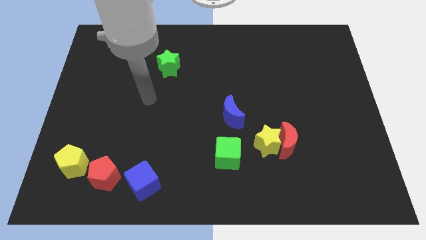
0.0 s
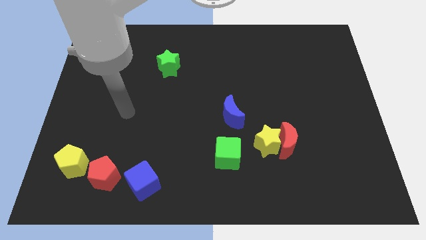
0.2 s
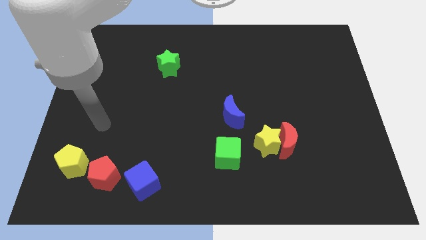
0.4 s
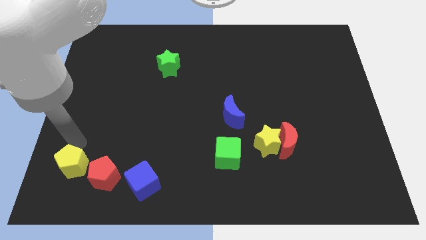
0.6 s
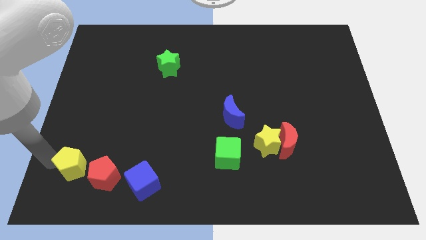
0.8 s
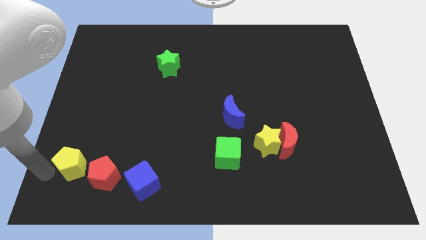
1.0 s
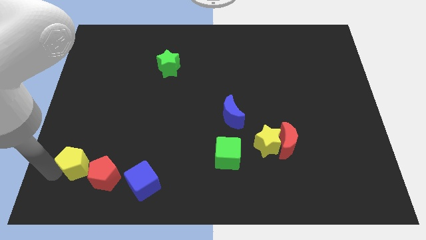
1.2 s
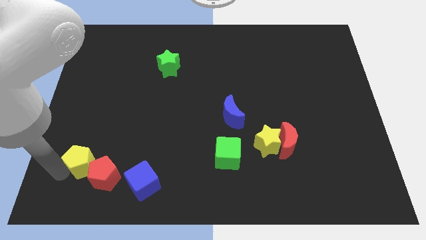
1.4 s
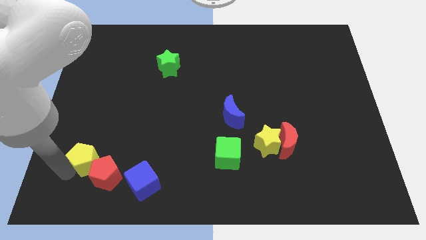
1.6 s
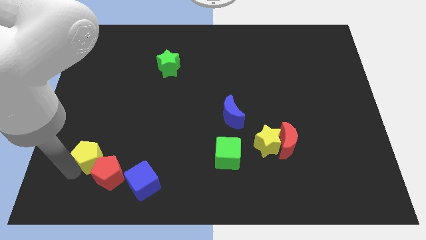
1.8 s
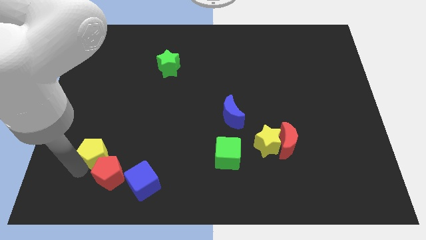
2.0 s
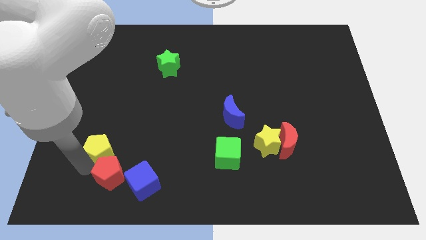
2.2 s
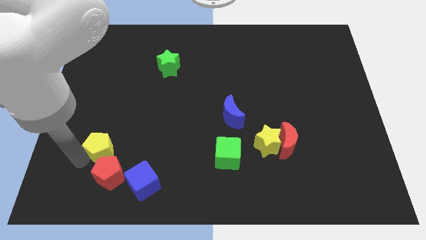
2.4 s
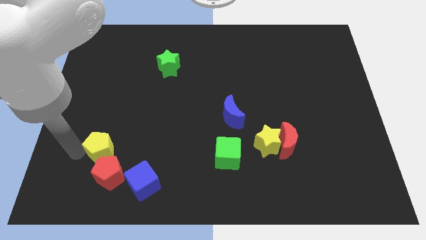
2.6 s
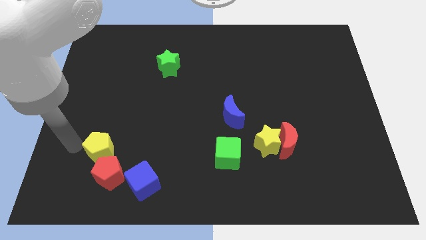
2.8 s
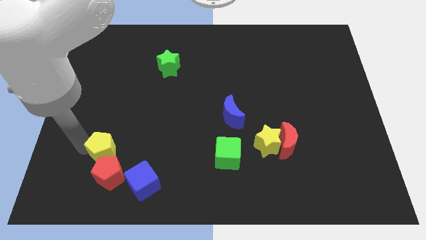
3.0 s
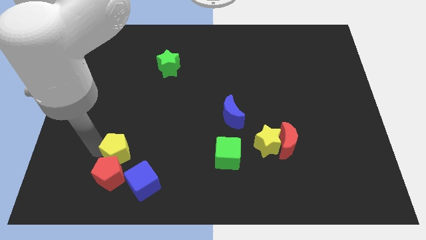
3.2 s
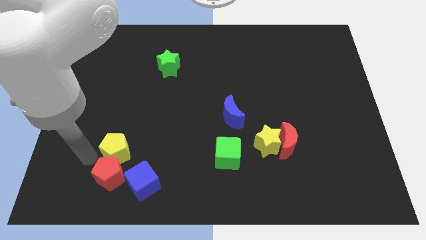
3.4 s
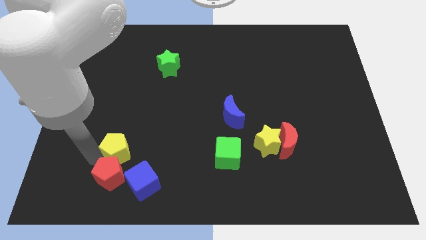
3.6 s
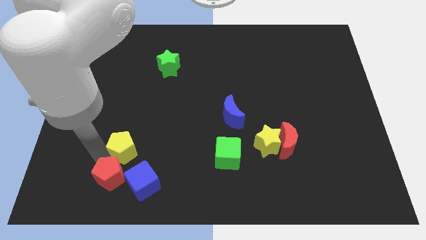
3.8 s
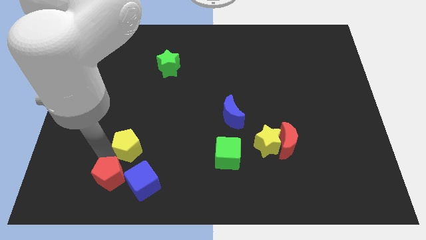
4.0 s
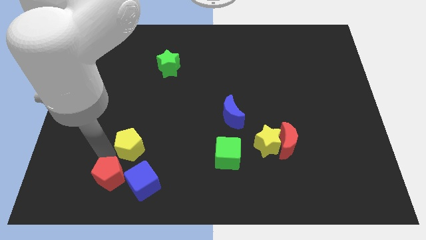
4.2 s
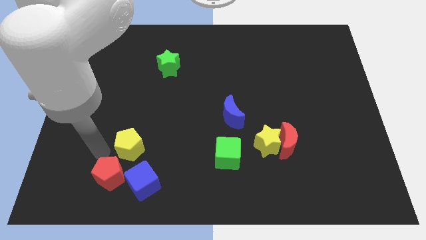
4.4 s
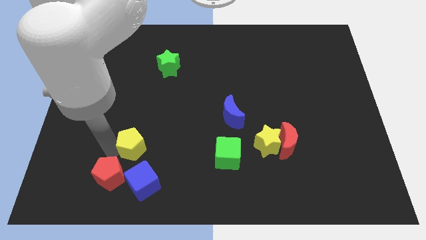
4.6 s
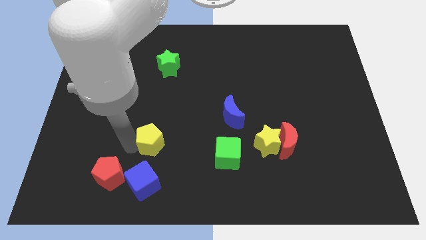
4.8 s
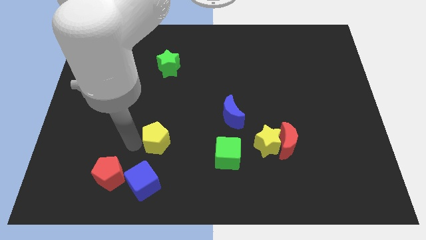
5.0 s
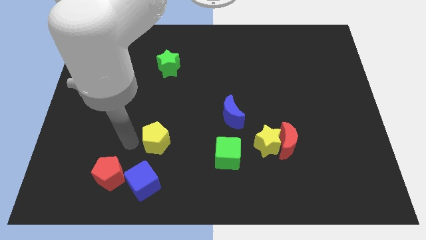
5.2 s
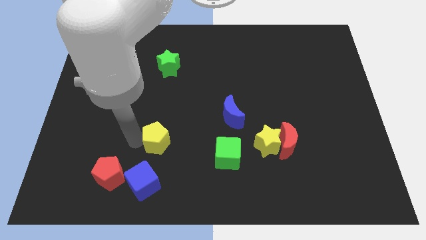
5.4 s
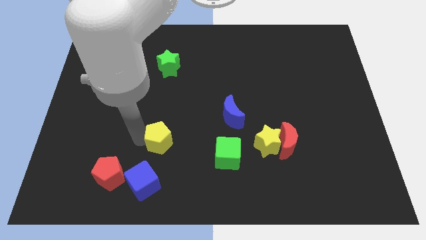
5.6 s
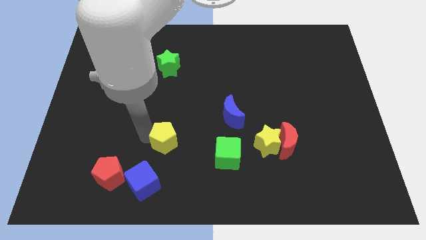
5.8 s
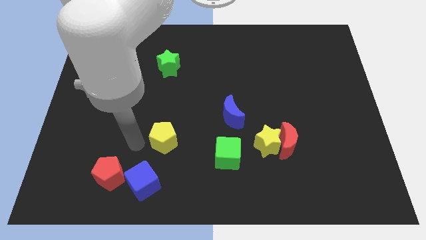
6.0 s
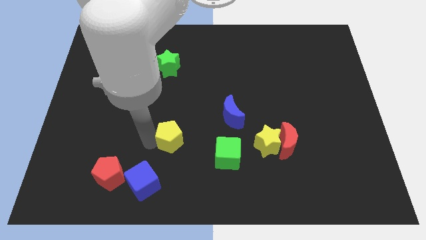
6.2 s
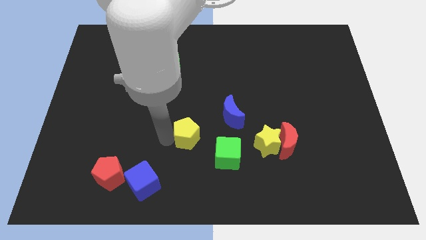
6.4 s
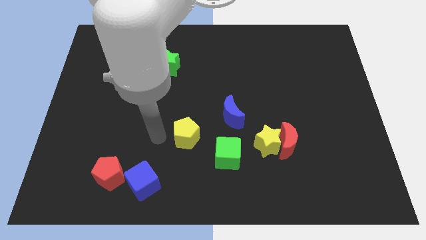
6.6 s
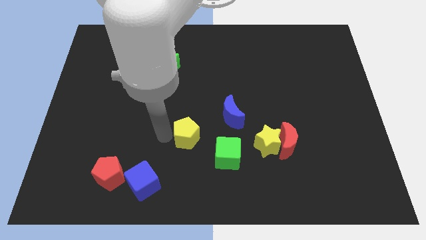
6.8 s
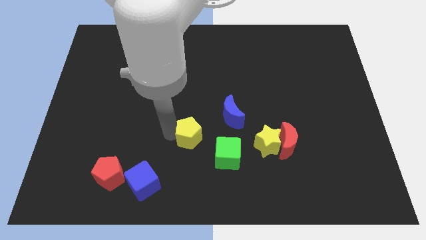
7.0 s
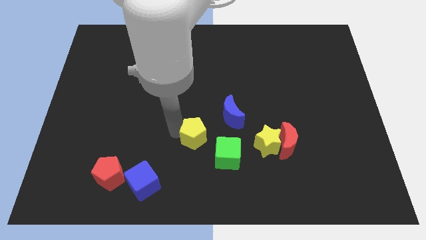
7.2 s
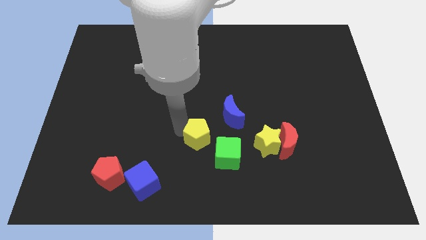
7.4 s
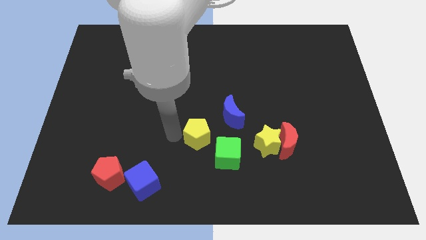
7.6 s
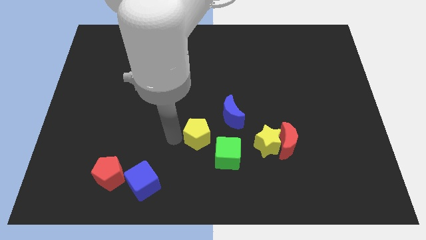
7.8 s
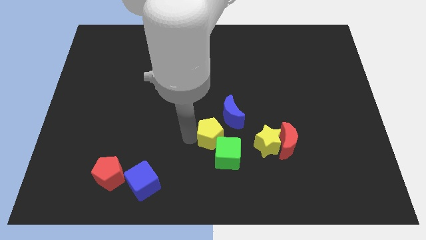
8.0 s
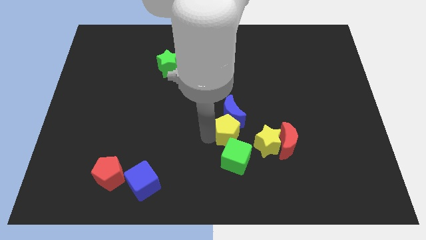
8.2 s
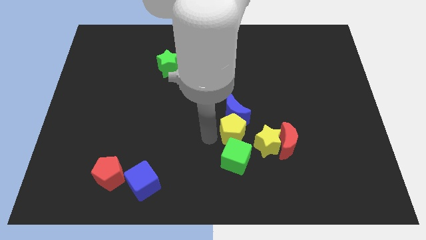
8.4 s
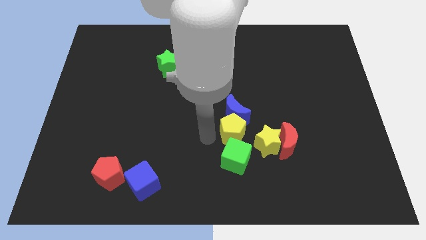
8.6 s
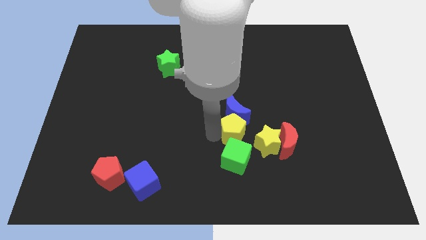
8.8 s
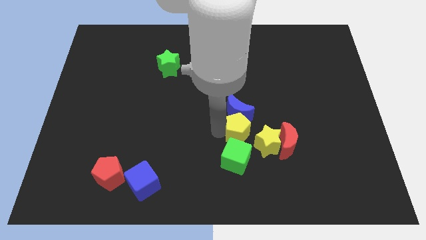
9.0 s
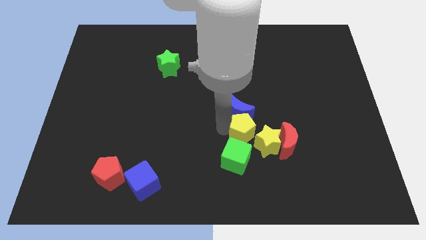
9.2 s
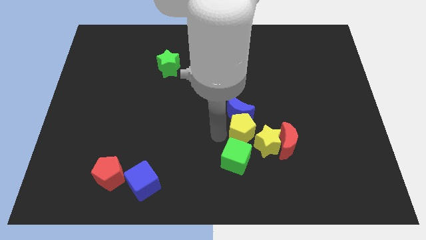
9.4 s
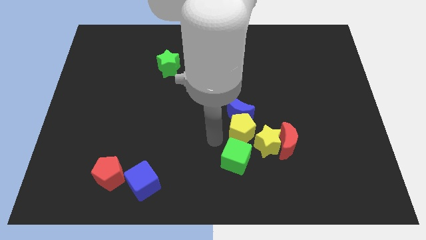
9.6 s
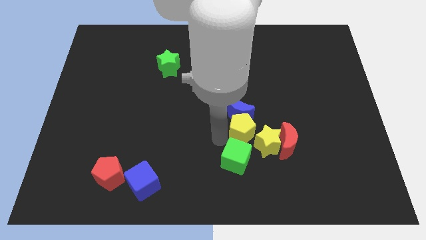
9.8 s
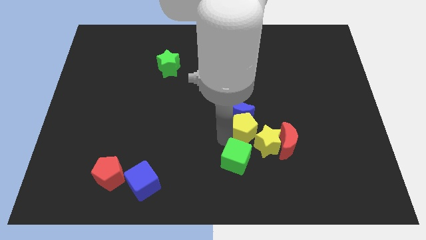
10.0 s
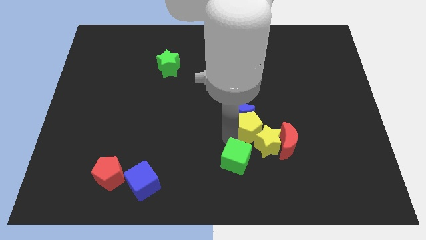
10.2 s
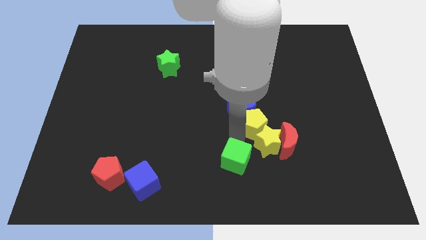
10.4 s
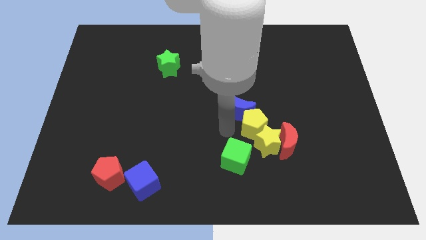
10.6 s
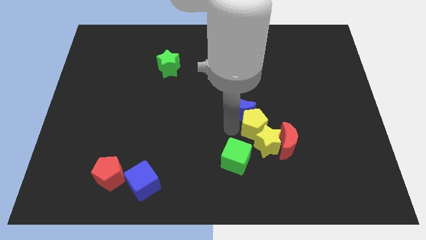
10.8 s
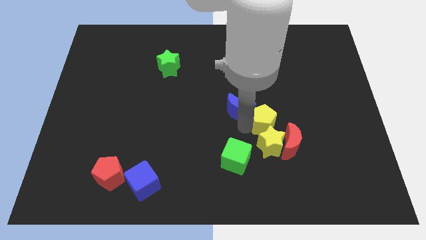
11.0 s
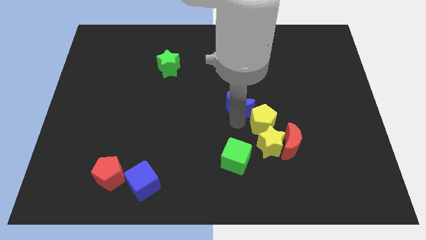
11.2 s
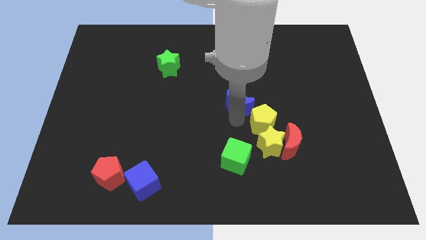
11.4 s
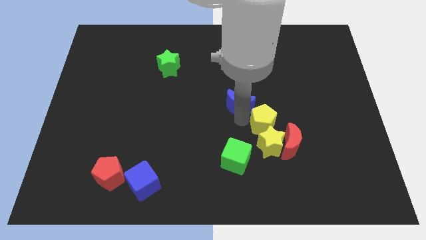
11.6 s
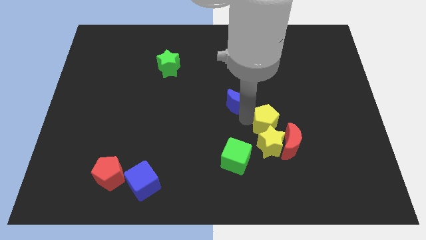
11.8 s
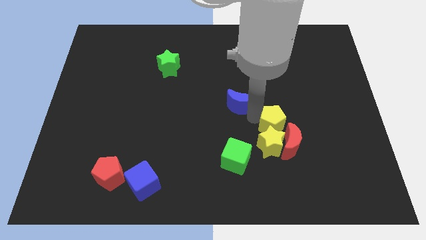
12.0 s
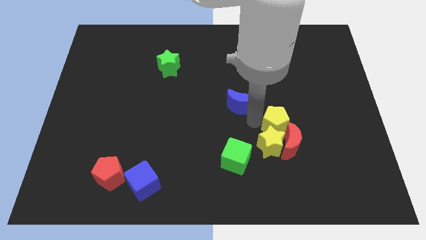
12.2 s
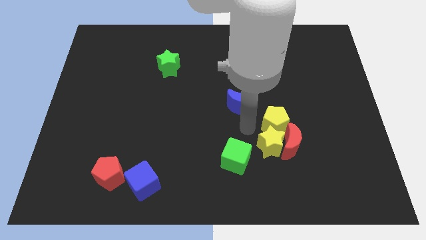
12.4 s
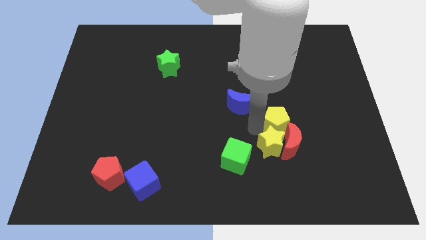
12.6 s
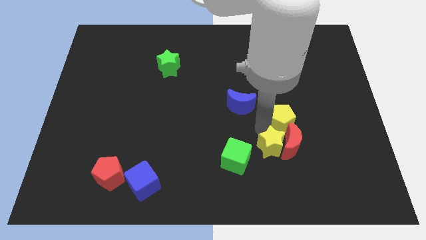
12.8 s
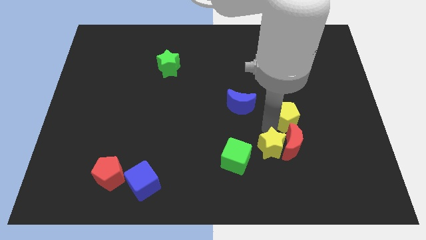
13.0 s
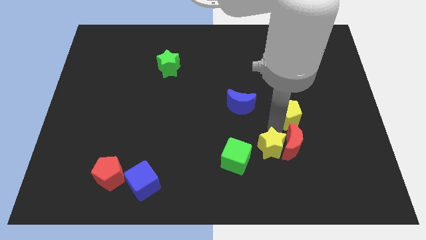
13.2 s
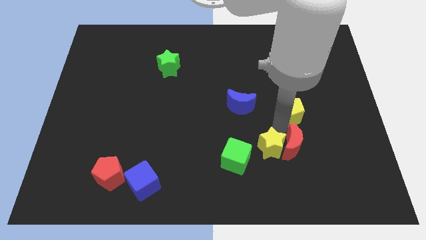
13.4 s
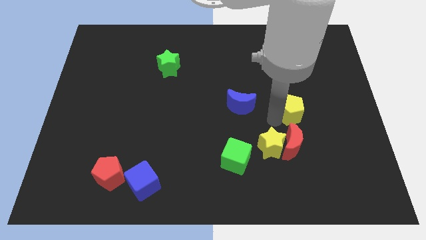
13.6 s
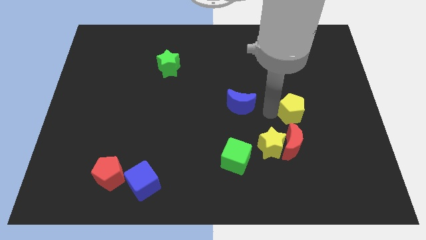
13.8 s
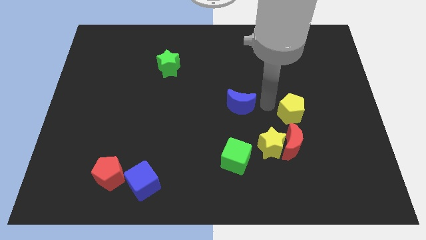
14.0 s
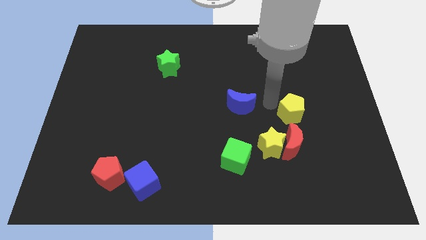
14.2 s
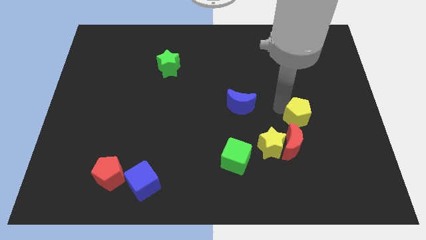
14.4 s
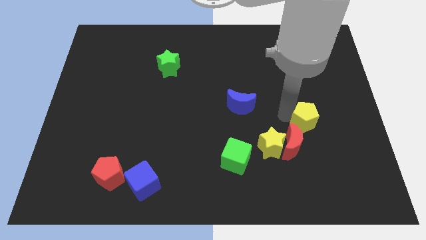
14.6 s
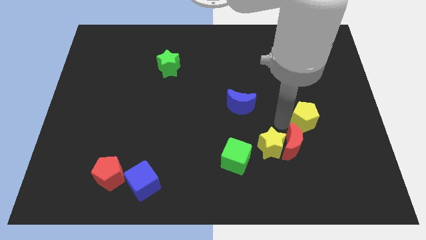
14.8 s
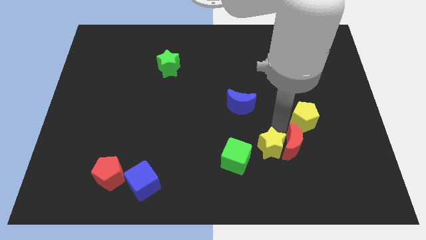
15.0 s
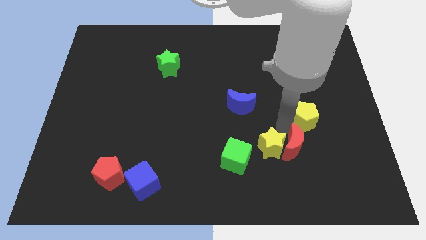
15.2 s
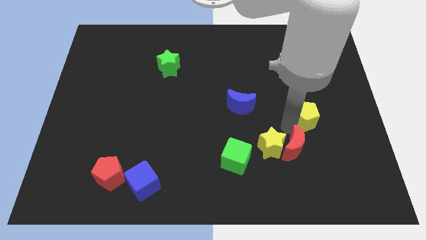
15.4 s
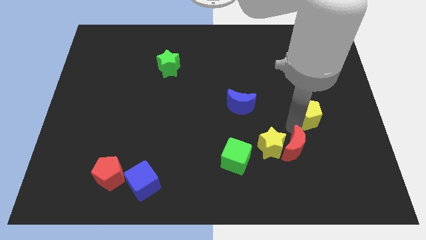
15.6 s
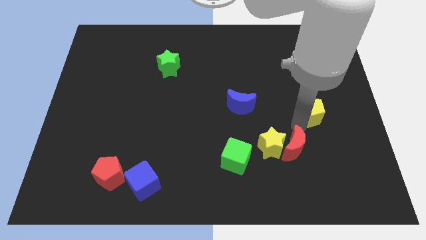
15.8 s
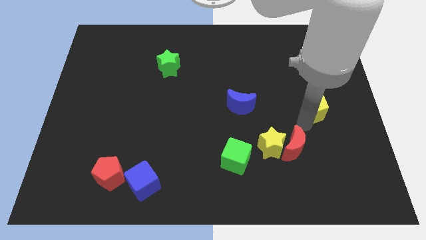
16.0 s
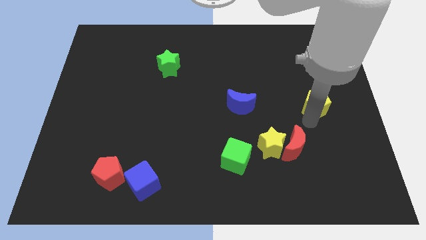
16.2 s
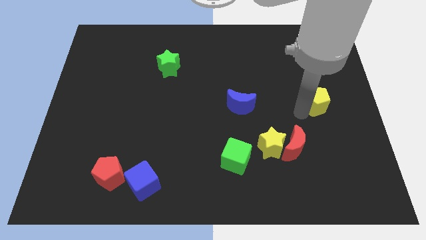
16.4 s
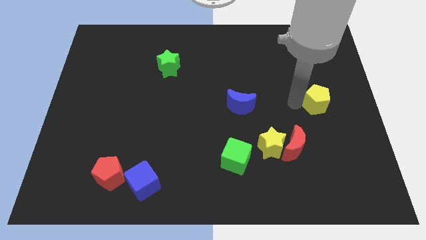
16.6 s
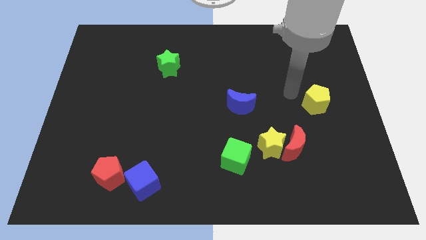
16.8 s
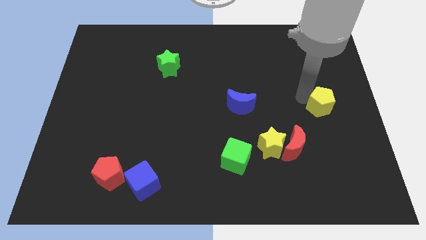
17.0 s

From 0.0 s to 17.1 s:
push the yellow pentagon to the right side of the board
